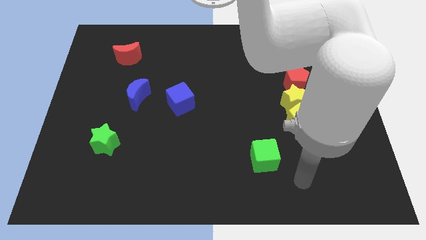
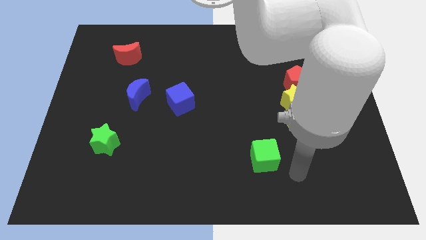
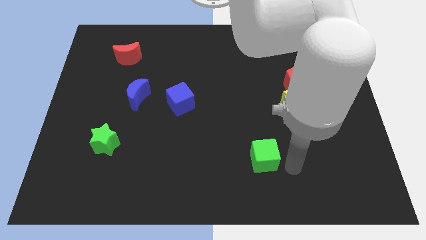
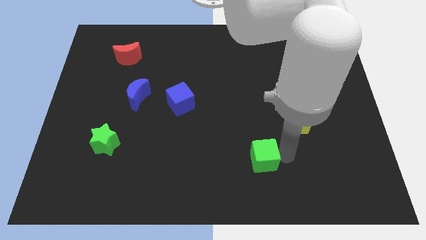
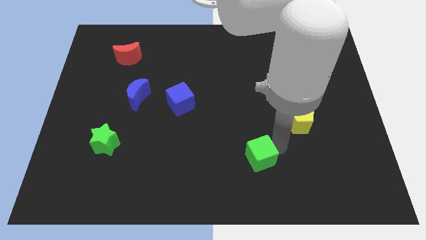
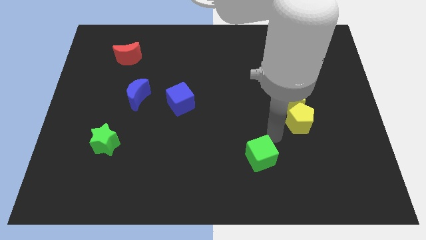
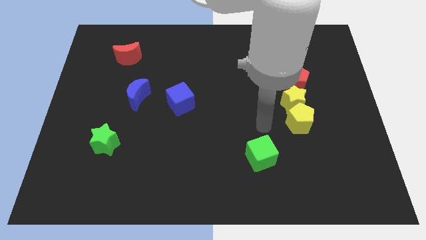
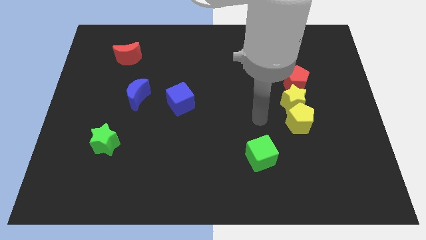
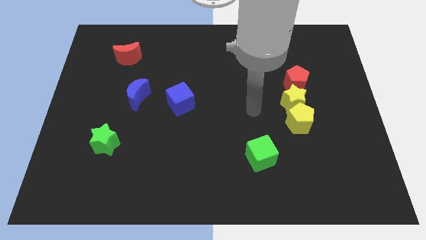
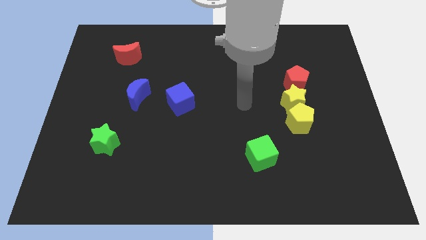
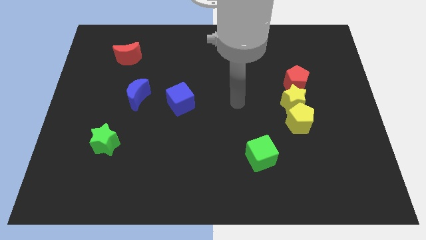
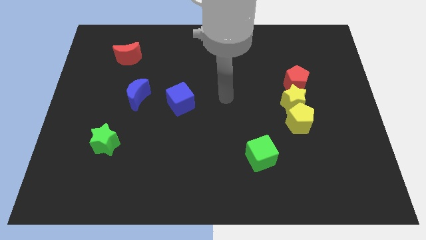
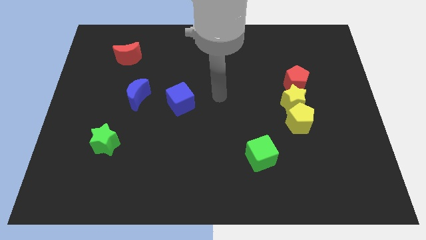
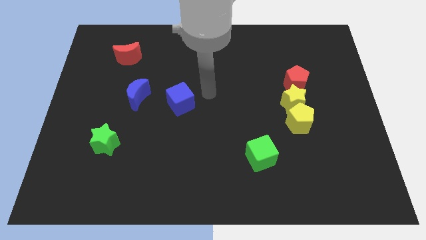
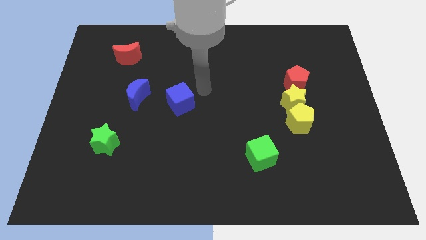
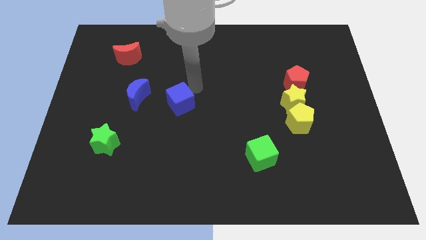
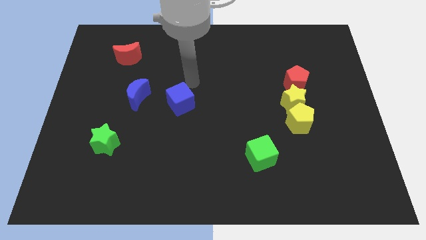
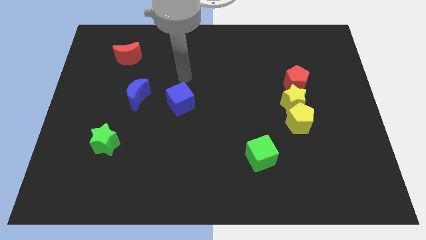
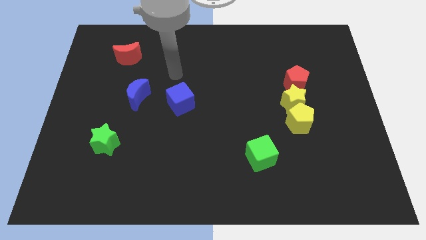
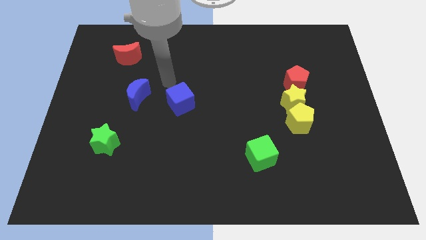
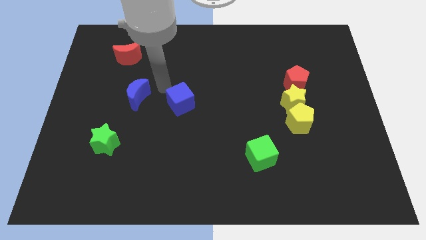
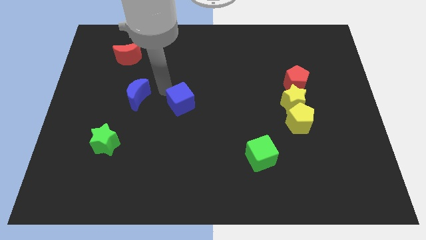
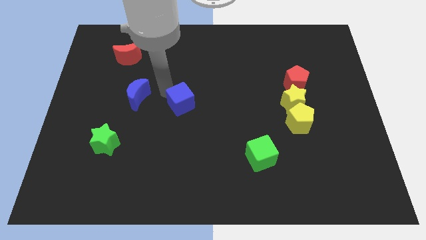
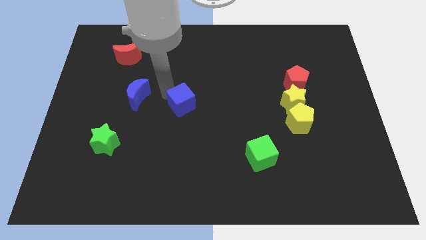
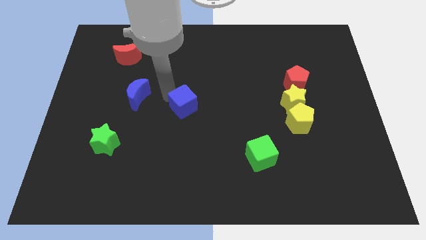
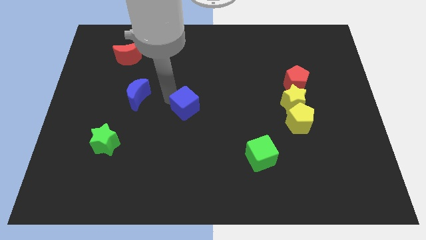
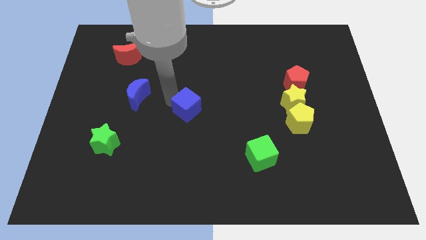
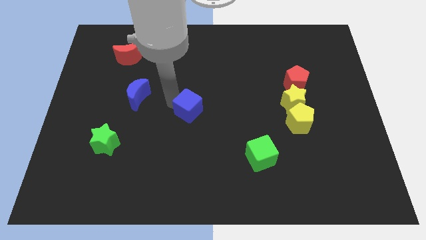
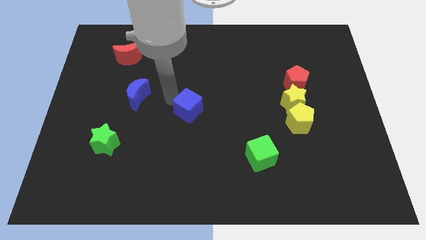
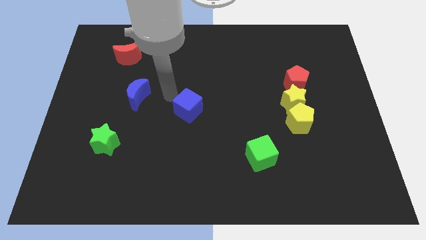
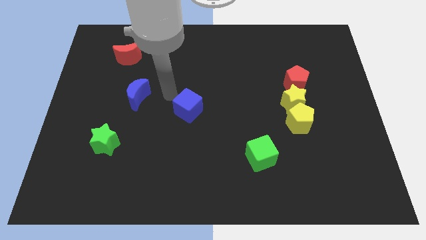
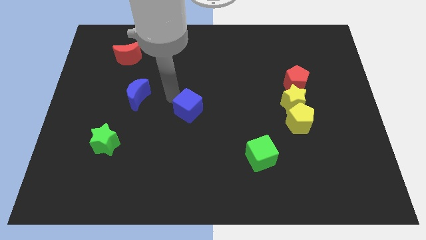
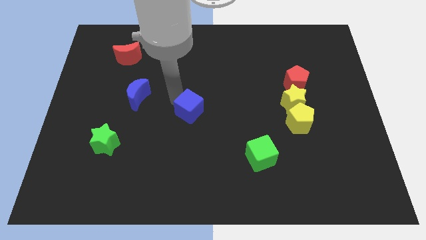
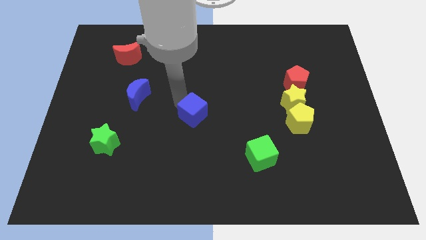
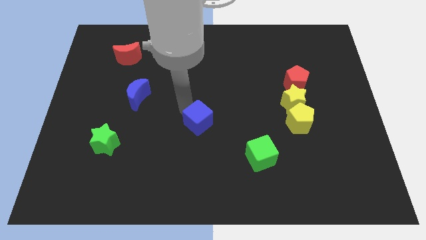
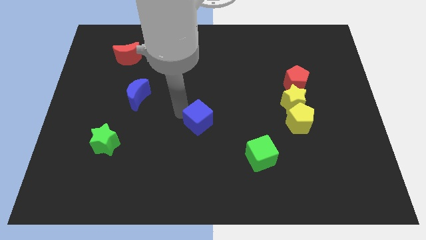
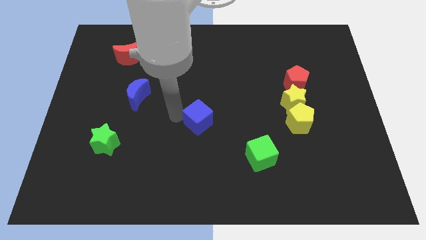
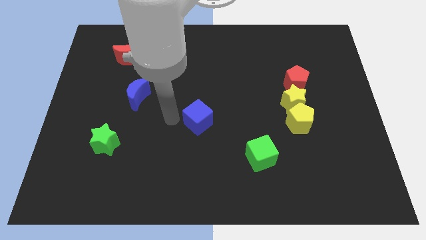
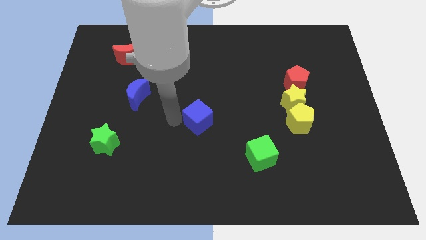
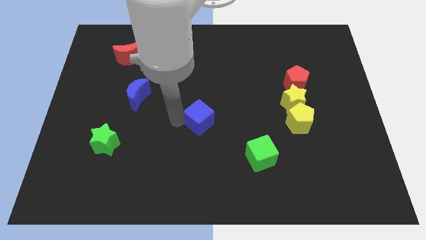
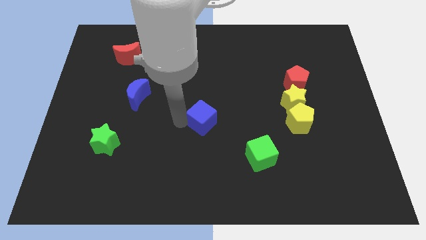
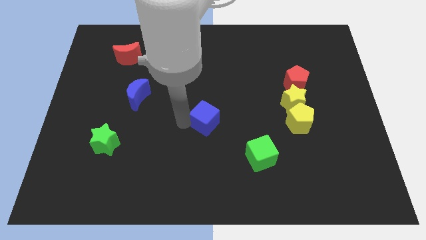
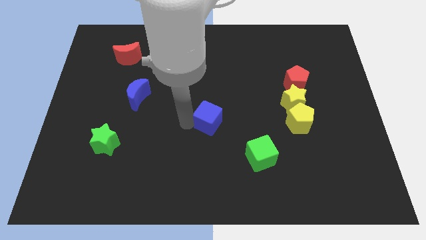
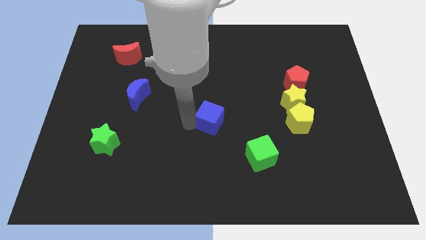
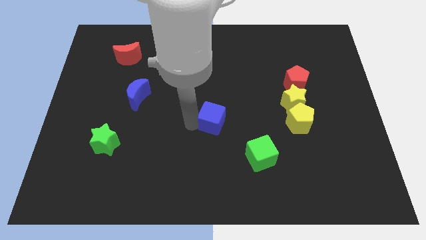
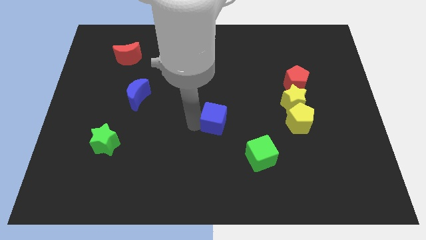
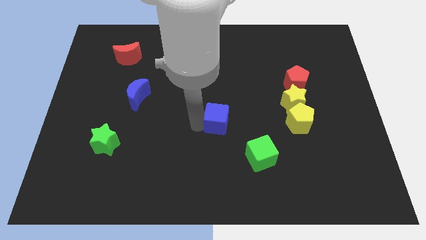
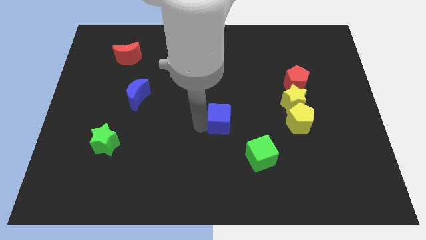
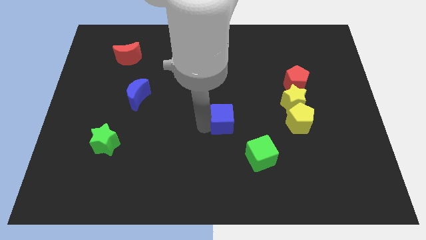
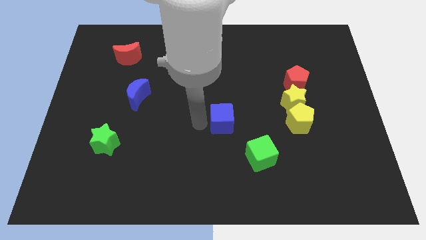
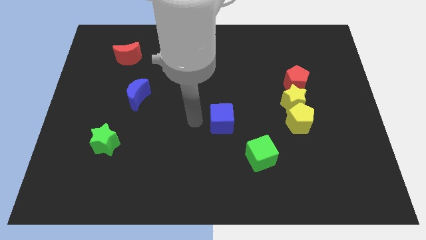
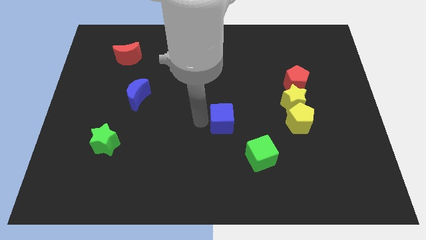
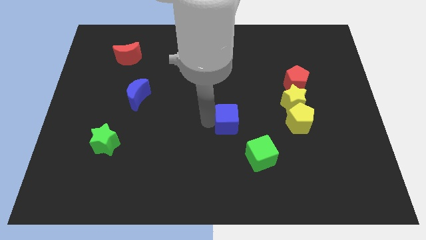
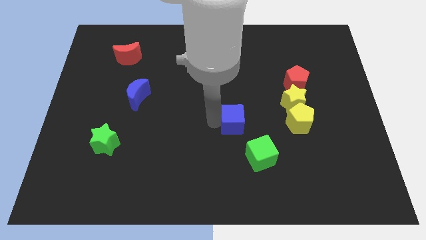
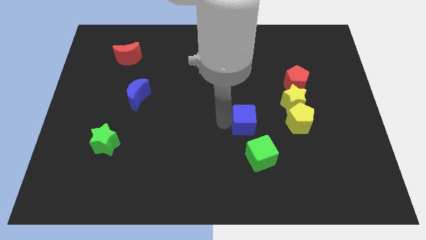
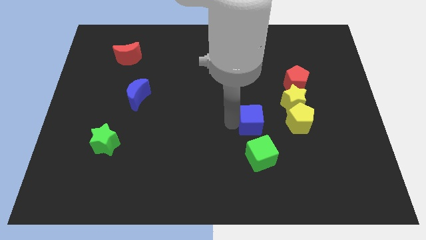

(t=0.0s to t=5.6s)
slide the blue cube to the bottom left side of the yellow star

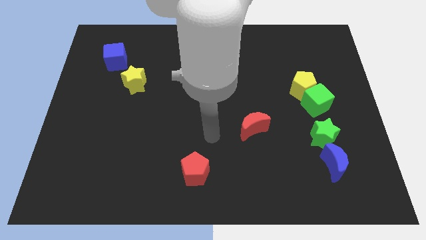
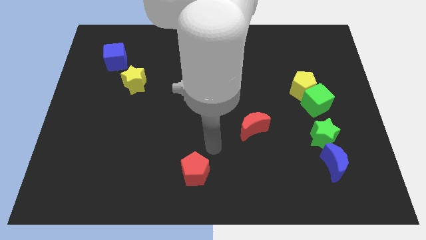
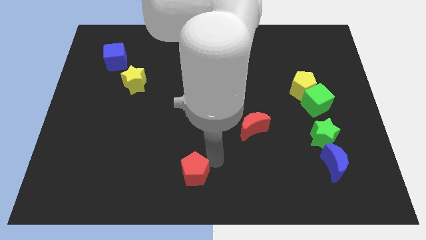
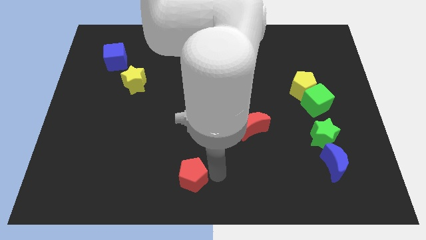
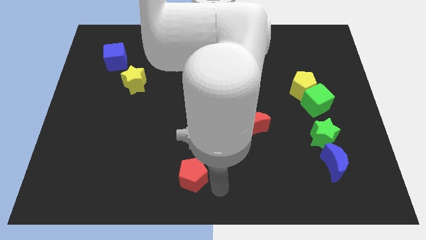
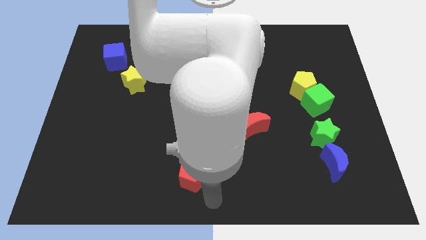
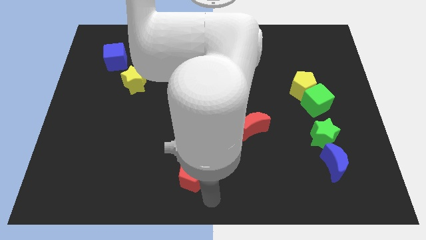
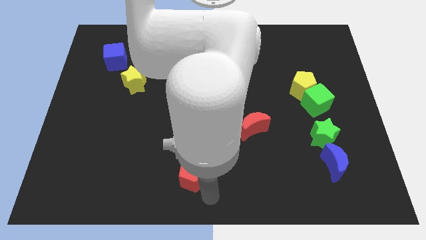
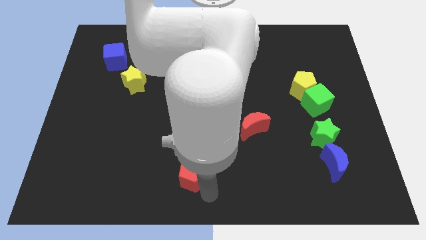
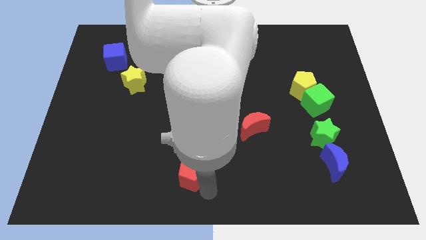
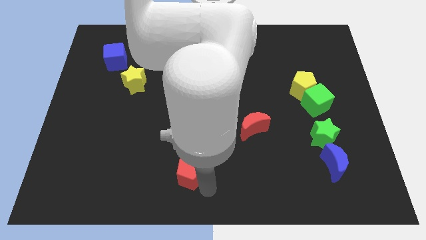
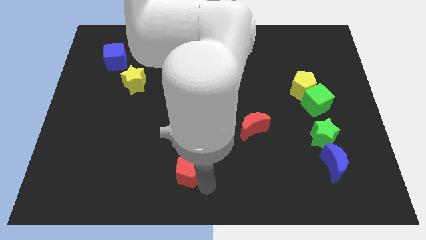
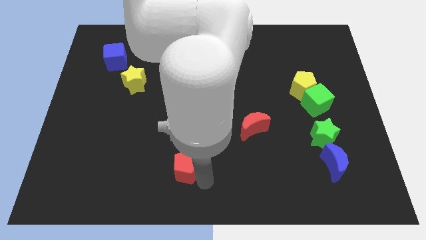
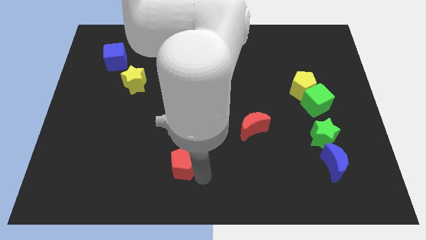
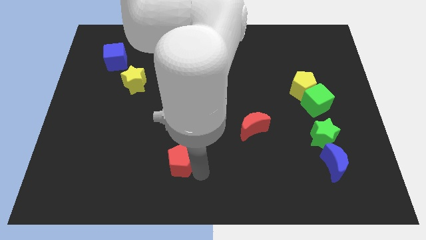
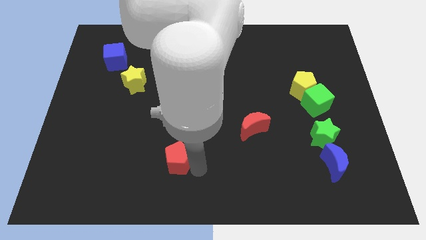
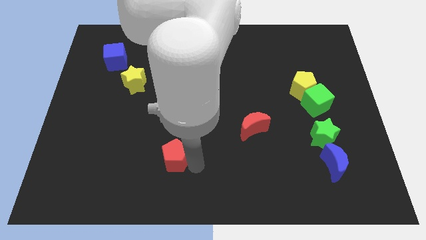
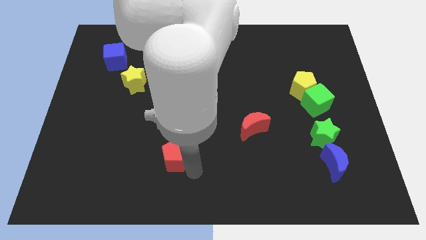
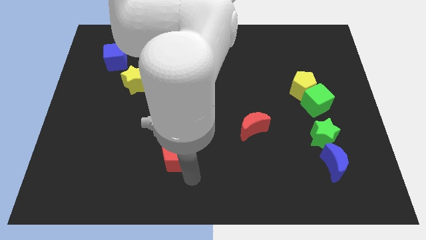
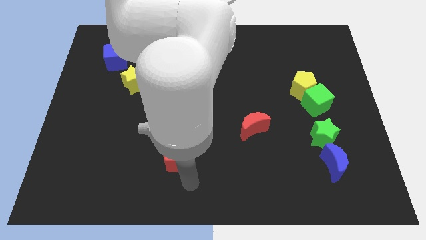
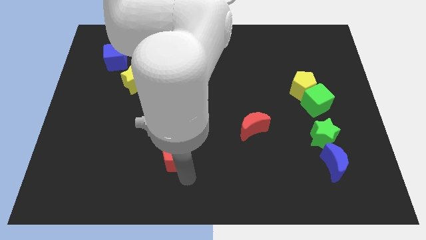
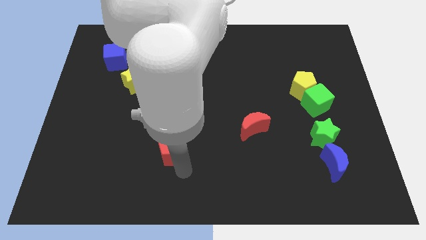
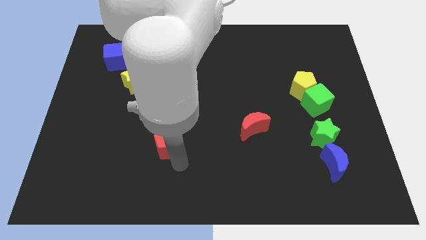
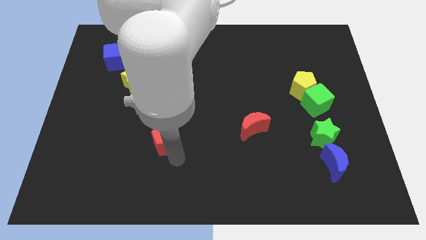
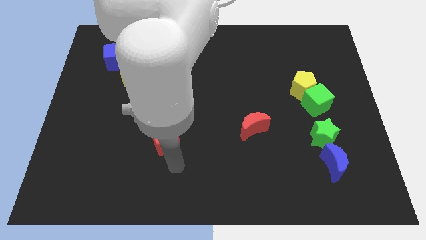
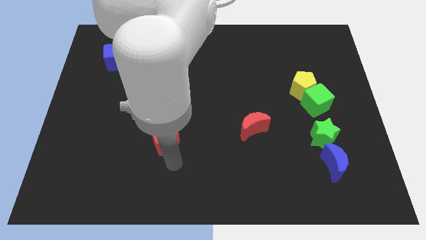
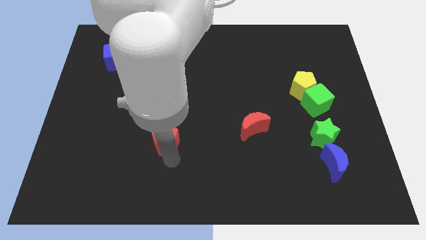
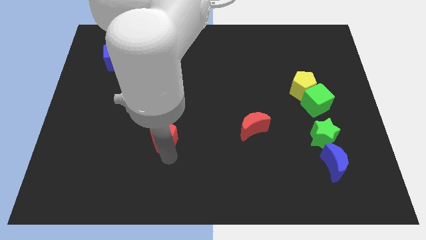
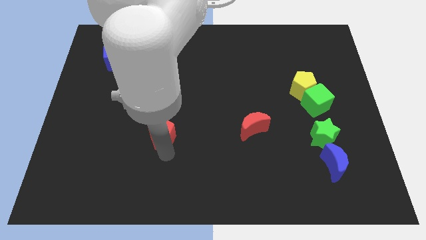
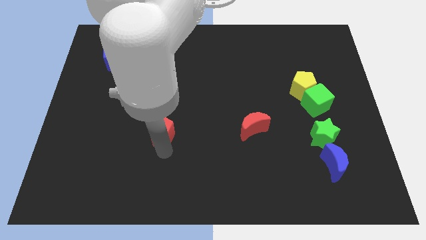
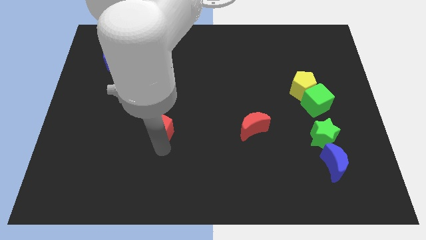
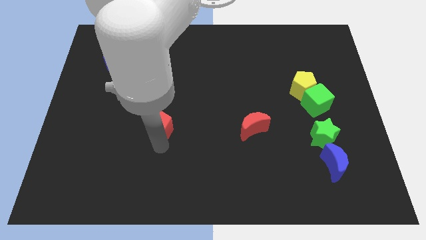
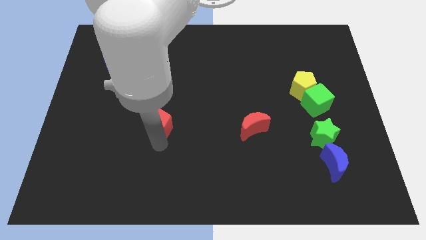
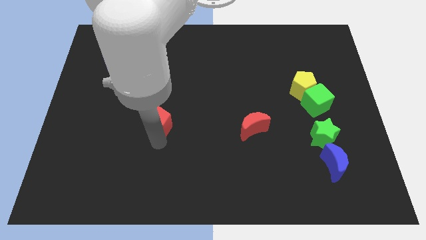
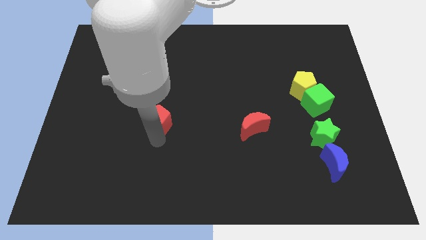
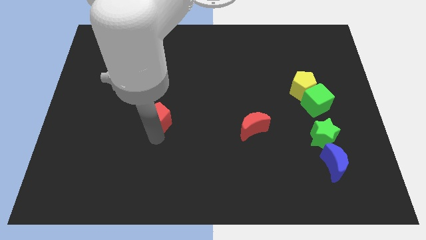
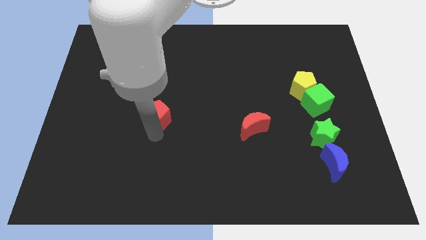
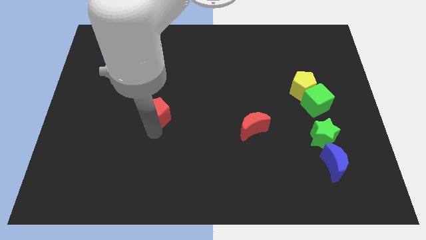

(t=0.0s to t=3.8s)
slide the red pentagon to the bottom right side of the yellow star
